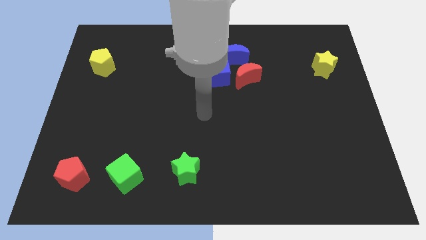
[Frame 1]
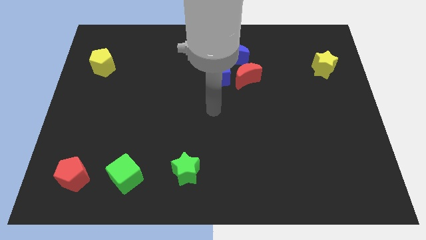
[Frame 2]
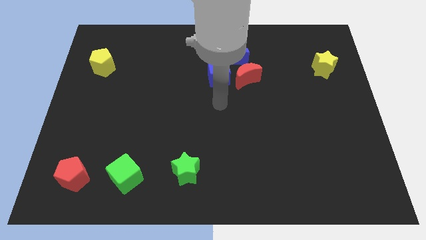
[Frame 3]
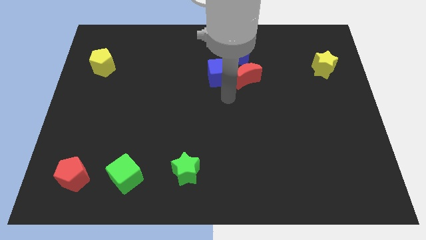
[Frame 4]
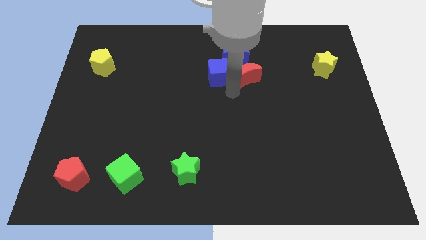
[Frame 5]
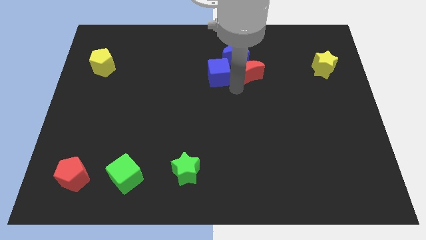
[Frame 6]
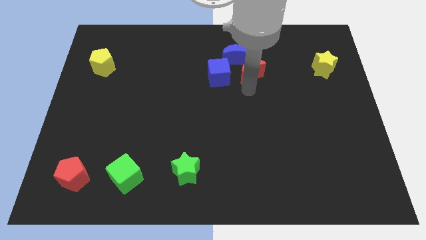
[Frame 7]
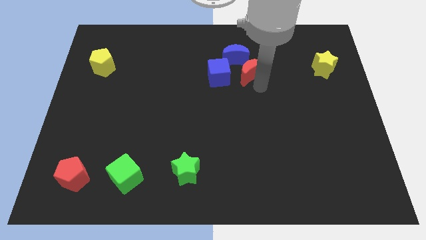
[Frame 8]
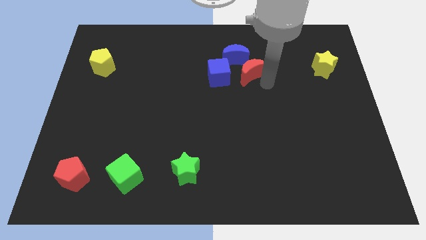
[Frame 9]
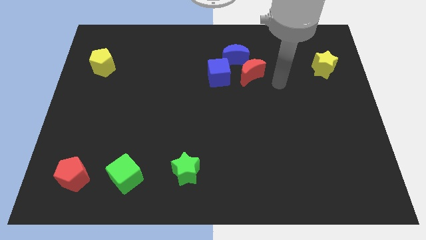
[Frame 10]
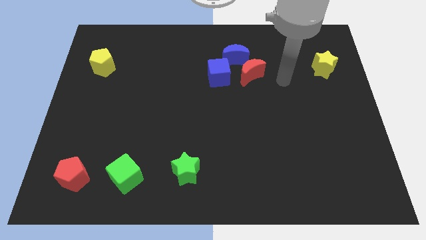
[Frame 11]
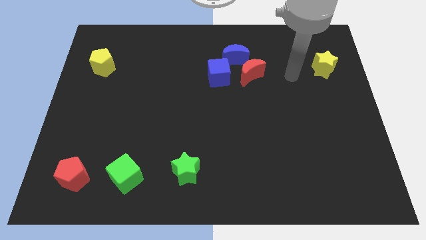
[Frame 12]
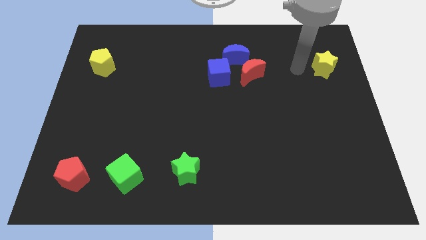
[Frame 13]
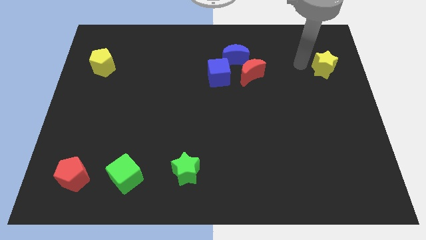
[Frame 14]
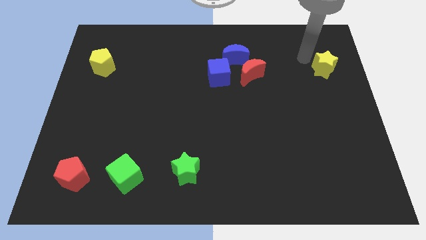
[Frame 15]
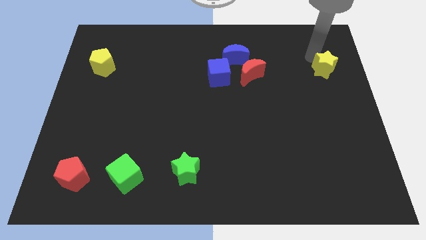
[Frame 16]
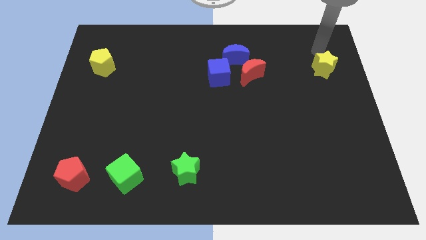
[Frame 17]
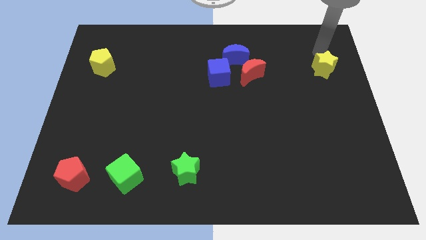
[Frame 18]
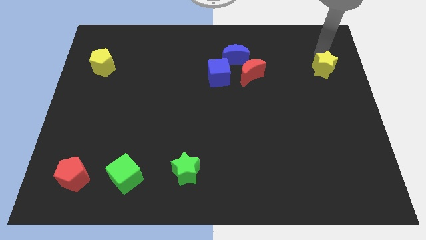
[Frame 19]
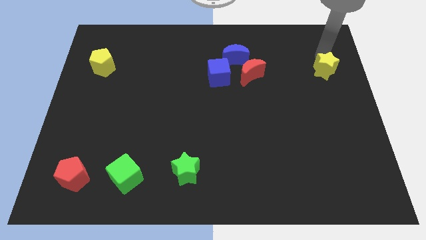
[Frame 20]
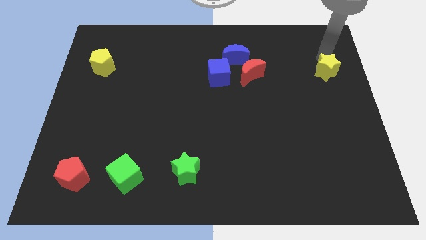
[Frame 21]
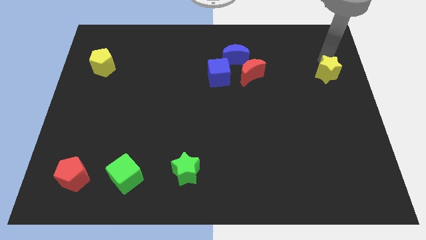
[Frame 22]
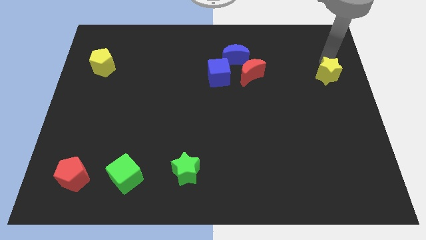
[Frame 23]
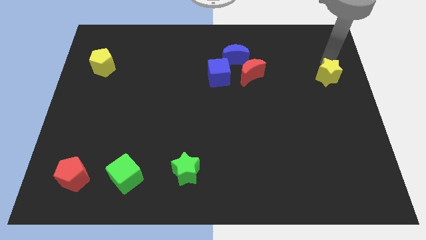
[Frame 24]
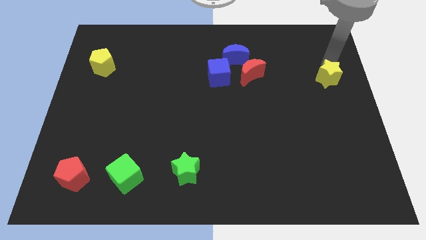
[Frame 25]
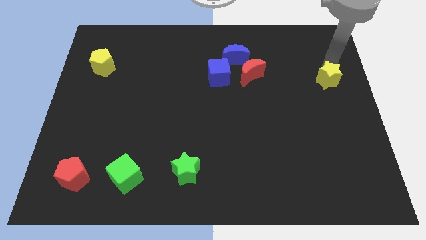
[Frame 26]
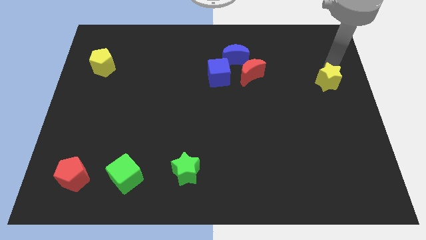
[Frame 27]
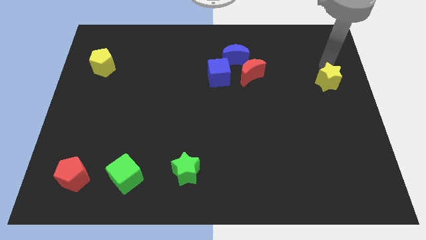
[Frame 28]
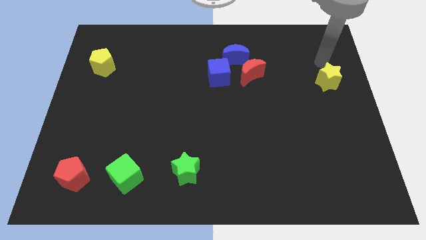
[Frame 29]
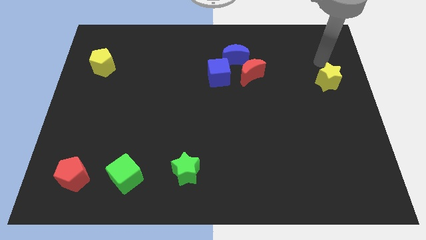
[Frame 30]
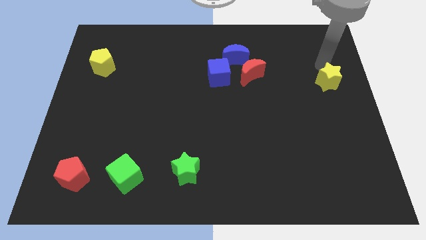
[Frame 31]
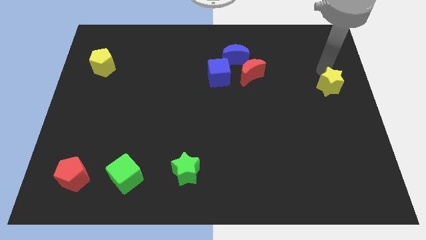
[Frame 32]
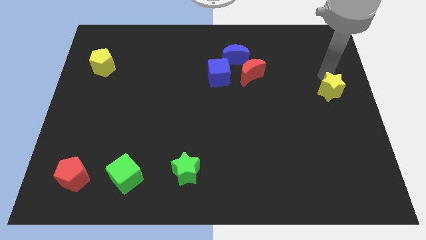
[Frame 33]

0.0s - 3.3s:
slide the yellow star downwards a little bit

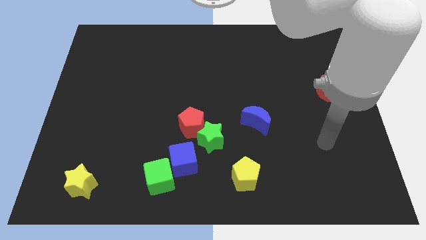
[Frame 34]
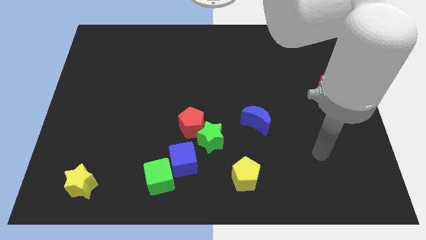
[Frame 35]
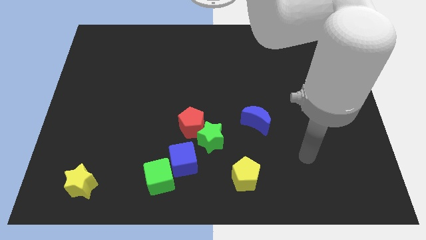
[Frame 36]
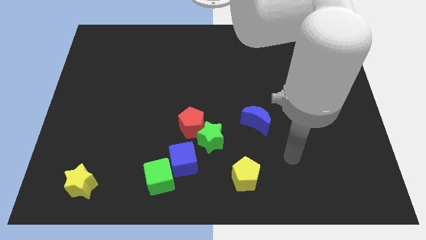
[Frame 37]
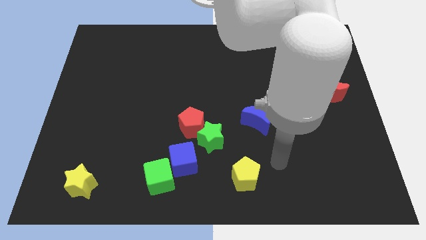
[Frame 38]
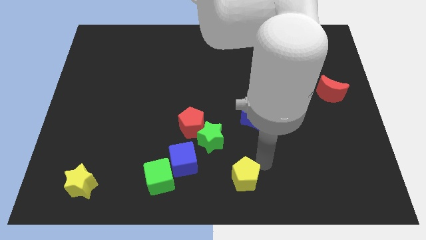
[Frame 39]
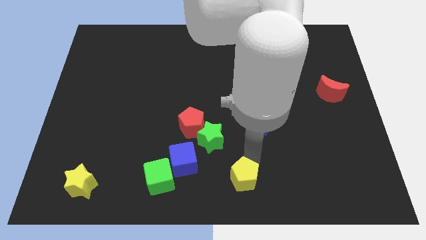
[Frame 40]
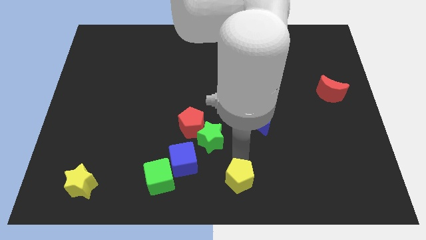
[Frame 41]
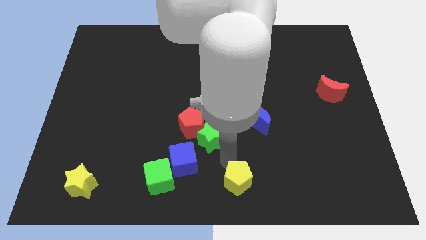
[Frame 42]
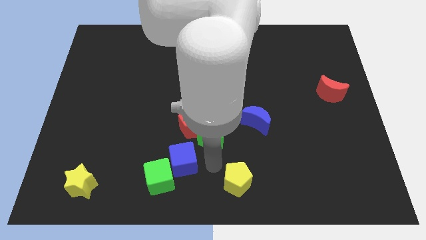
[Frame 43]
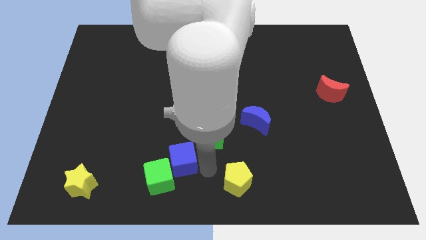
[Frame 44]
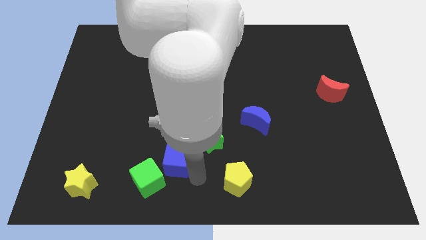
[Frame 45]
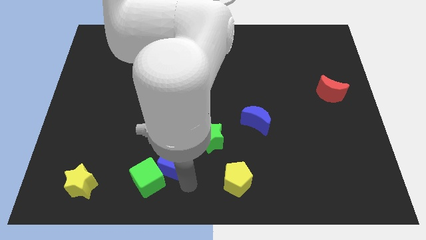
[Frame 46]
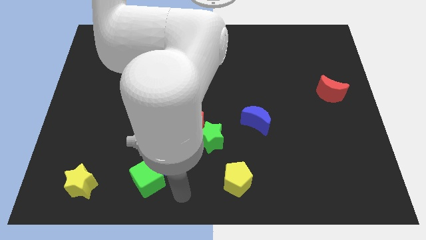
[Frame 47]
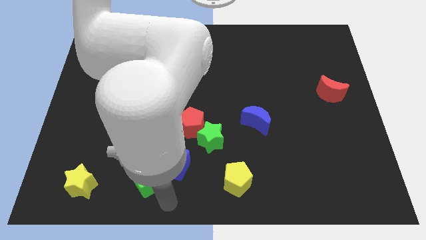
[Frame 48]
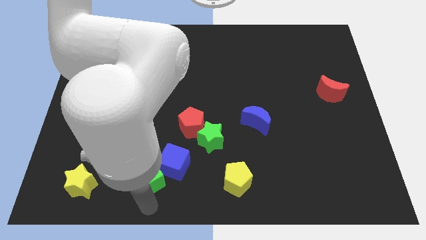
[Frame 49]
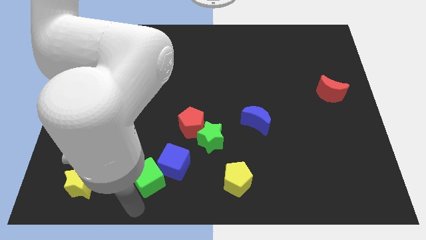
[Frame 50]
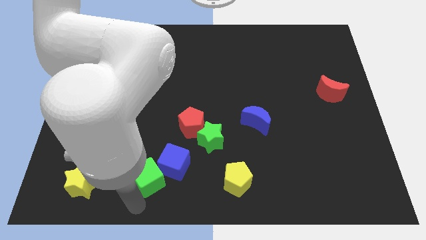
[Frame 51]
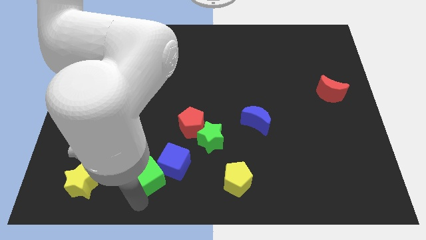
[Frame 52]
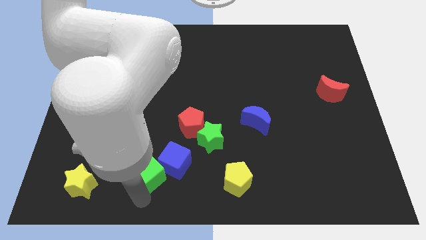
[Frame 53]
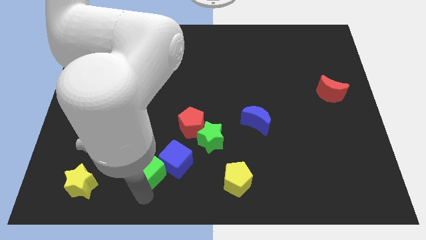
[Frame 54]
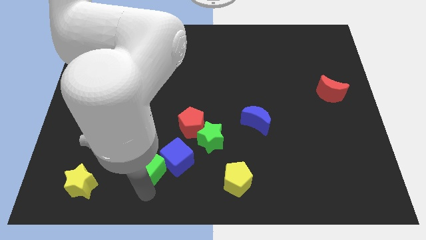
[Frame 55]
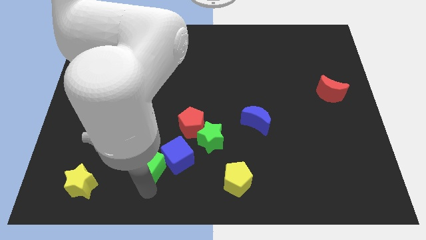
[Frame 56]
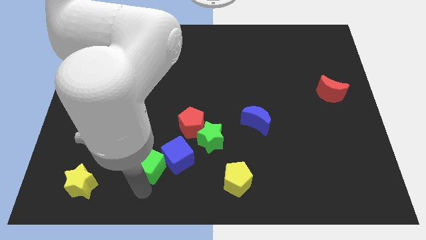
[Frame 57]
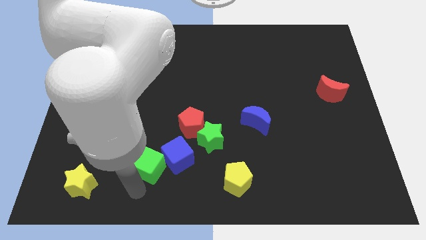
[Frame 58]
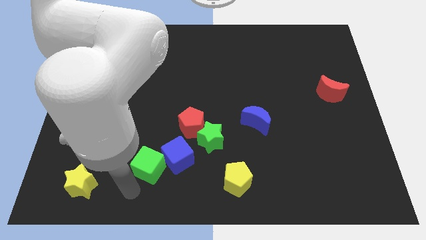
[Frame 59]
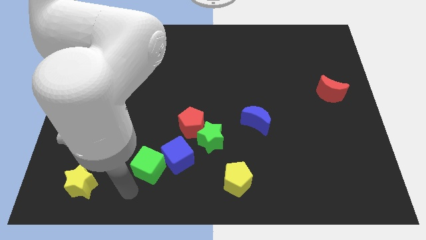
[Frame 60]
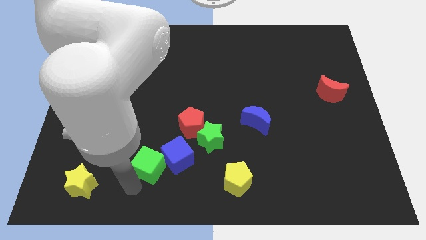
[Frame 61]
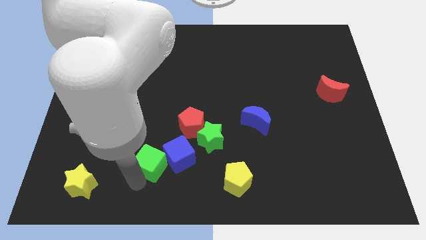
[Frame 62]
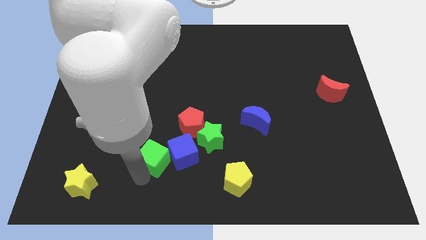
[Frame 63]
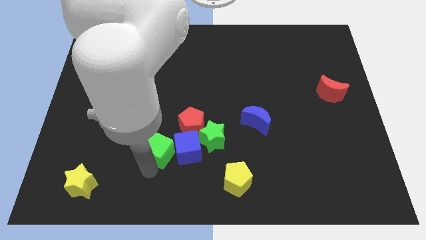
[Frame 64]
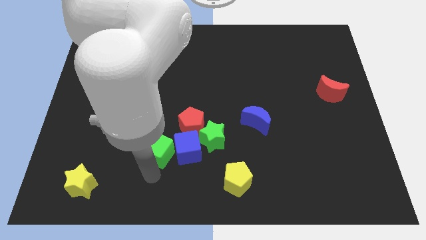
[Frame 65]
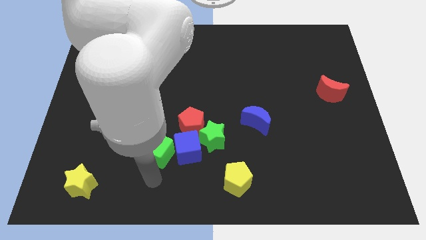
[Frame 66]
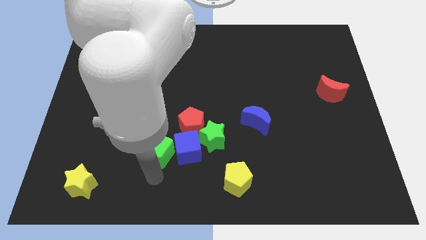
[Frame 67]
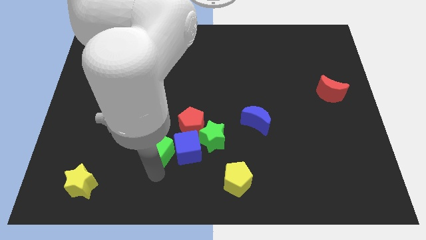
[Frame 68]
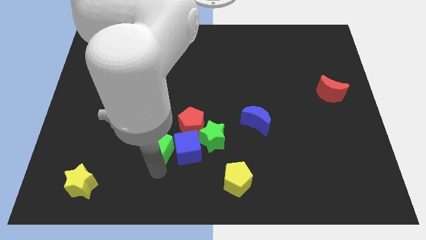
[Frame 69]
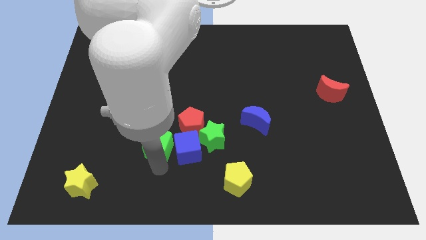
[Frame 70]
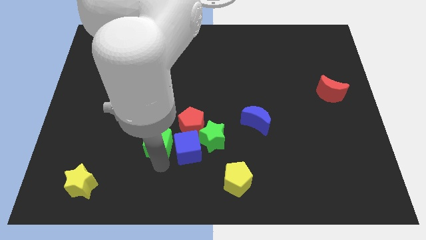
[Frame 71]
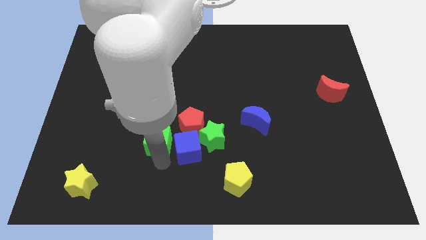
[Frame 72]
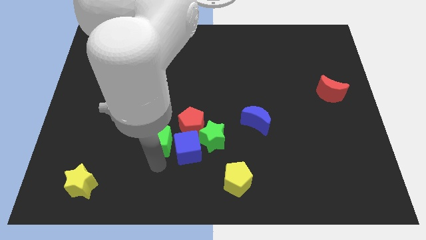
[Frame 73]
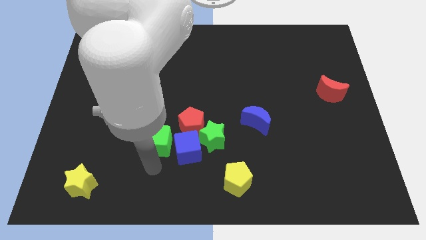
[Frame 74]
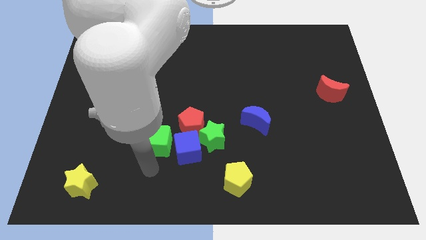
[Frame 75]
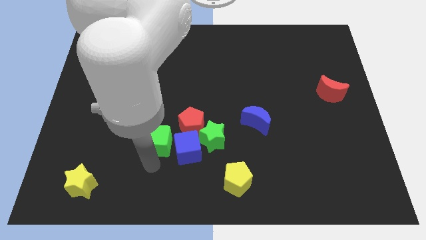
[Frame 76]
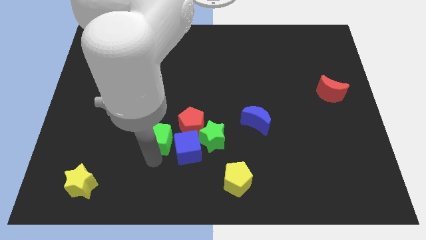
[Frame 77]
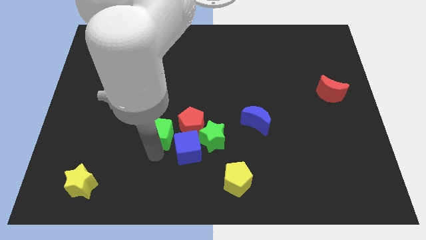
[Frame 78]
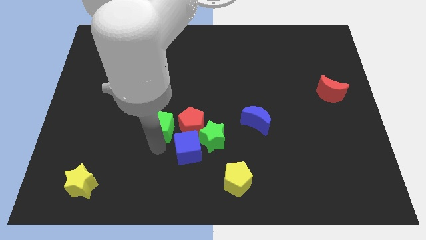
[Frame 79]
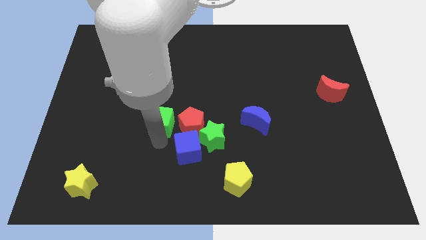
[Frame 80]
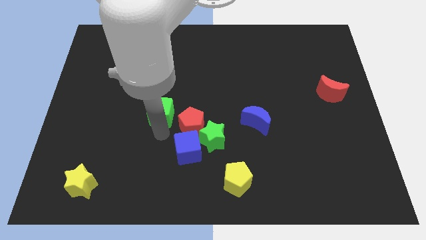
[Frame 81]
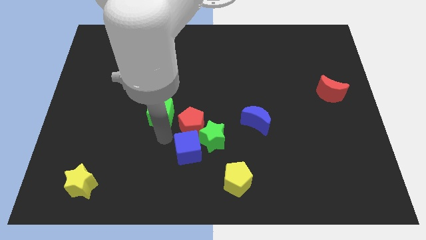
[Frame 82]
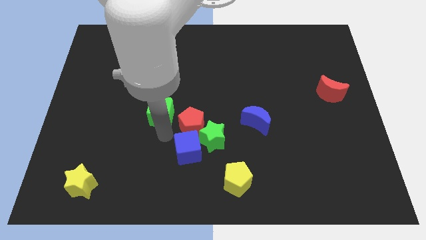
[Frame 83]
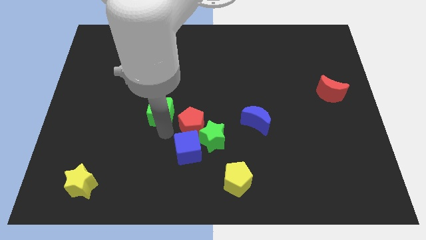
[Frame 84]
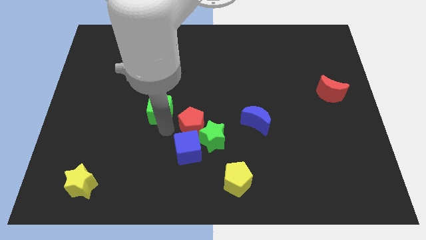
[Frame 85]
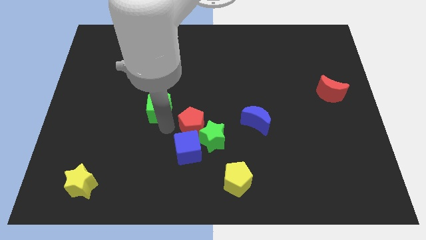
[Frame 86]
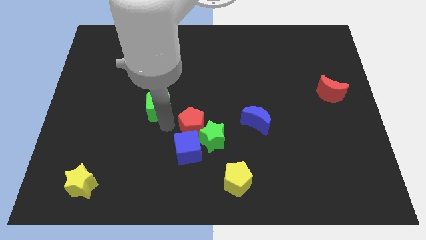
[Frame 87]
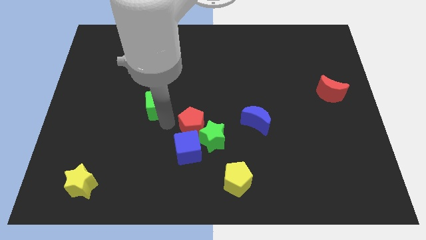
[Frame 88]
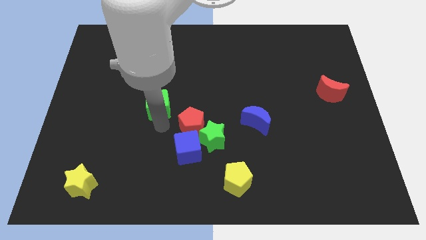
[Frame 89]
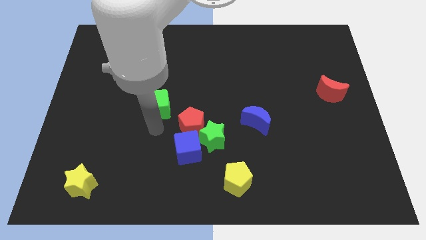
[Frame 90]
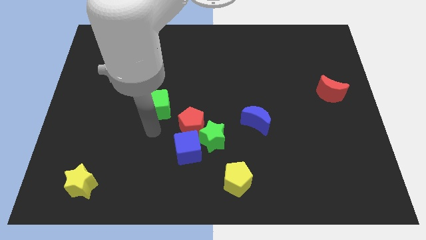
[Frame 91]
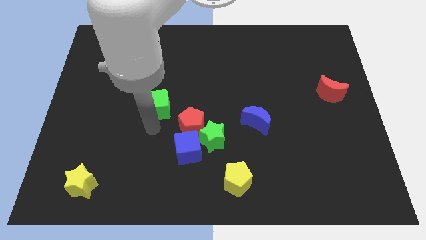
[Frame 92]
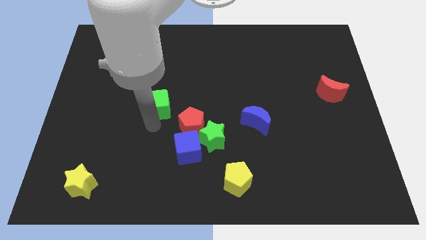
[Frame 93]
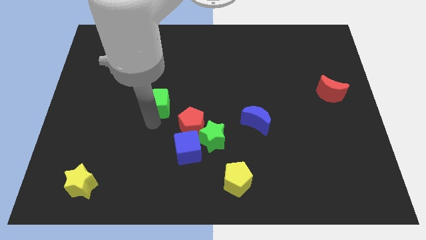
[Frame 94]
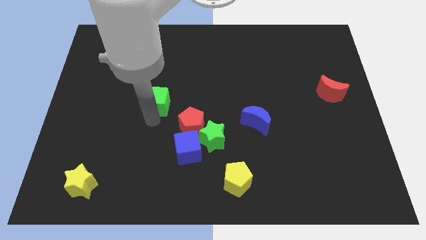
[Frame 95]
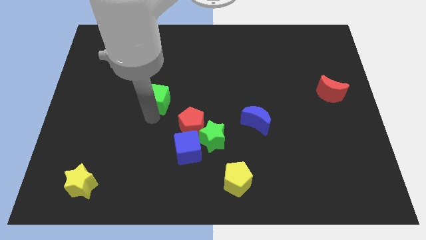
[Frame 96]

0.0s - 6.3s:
slide the green cube up
